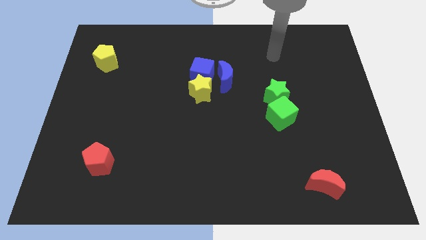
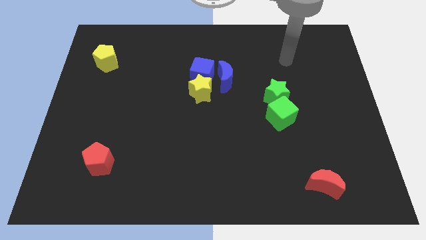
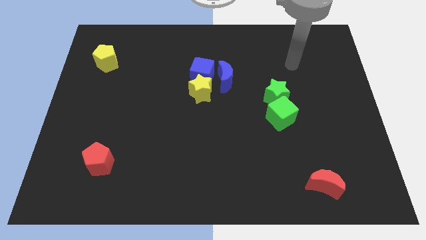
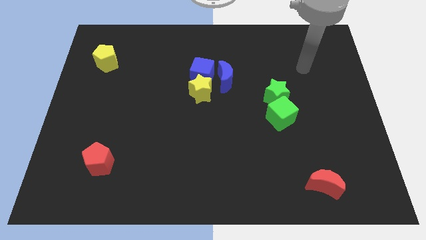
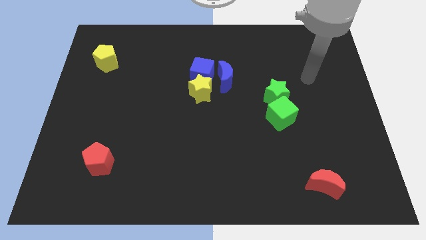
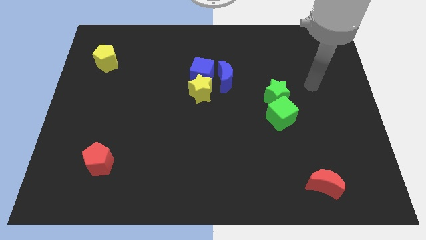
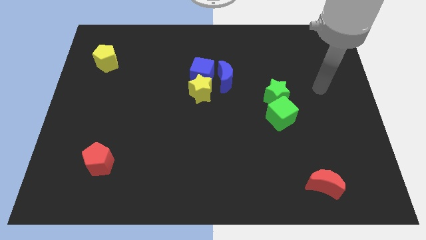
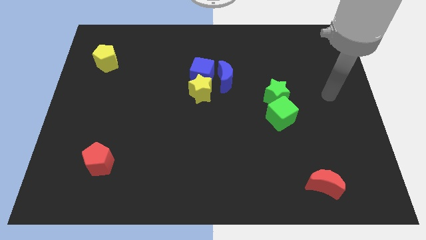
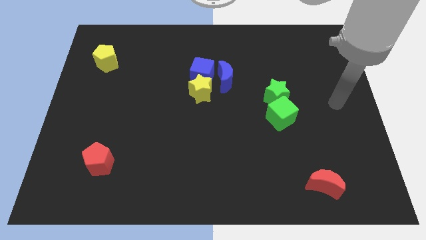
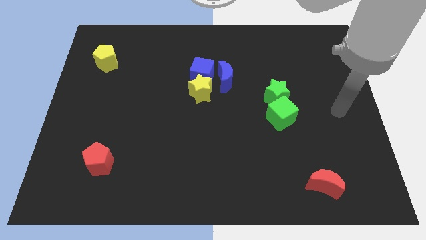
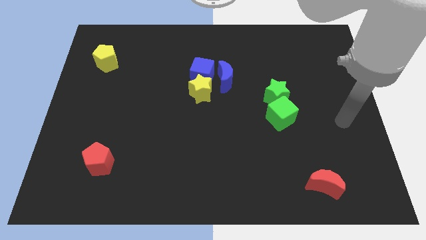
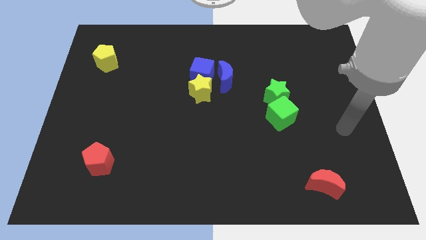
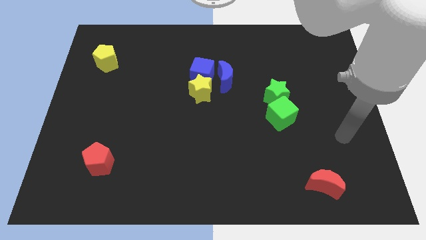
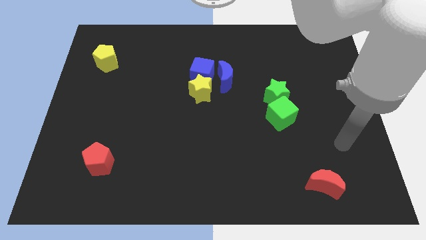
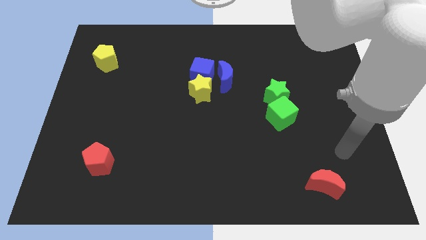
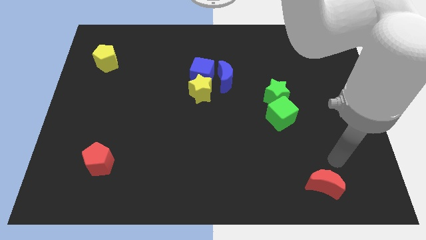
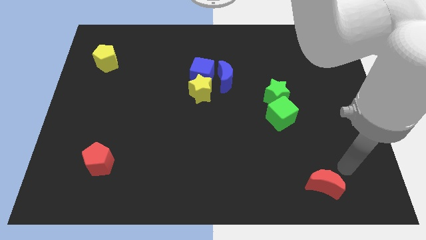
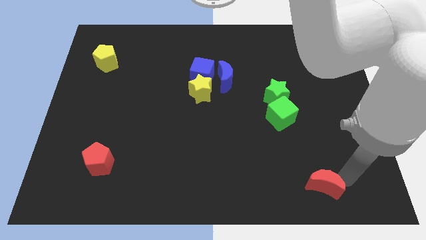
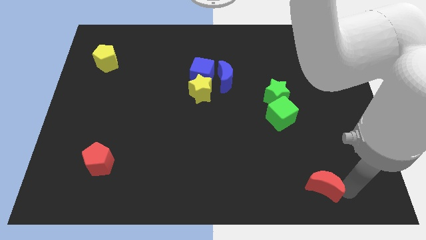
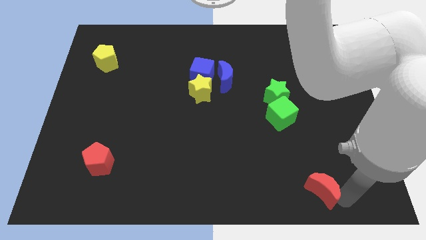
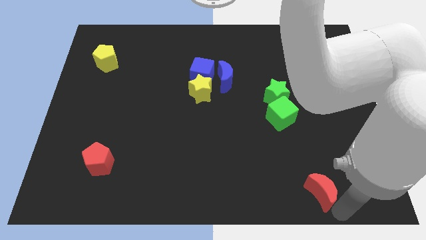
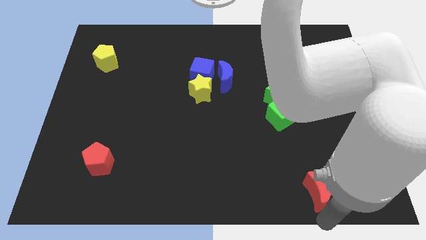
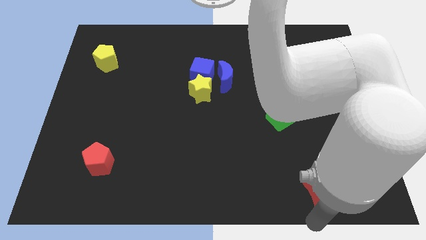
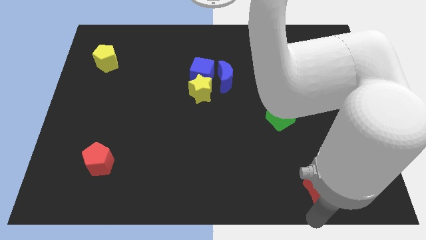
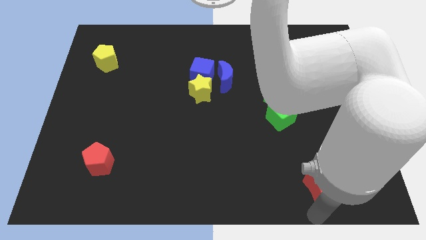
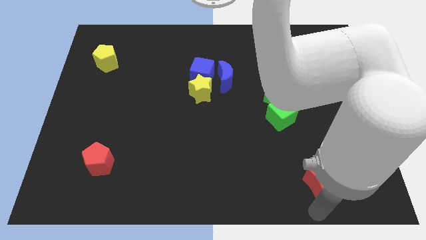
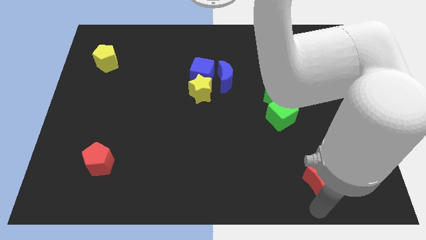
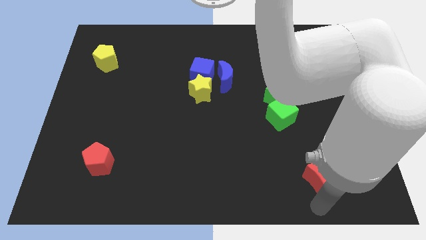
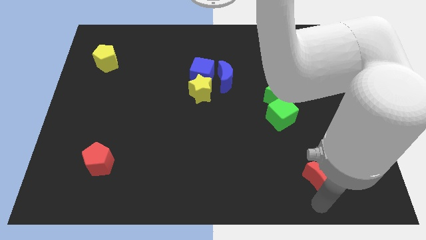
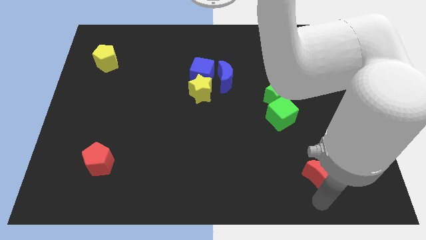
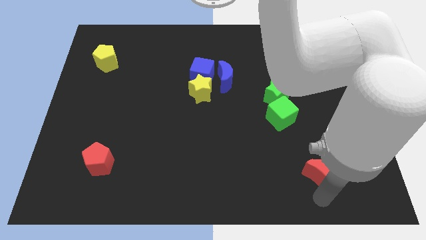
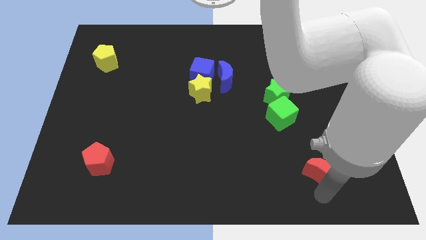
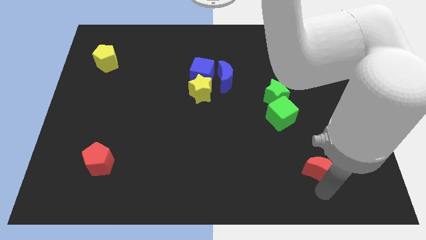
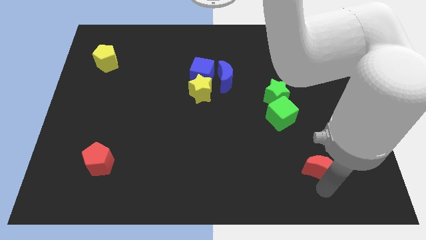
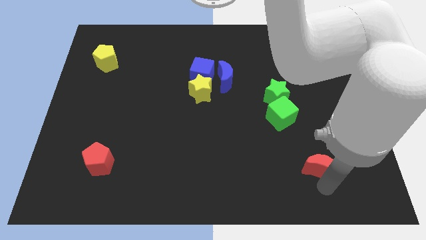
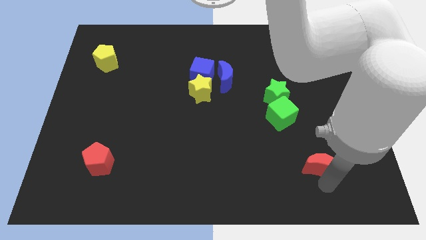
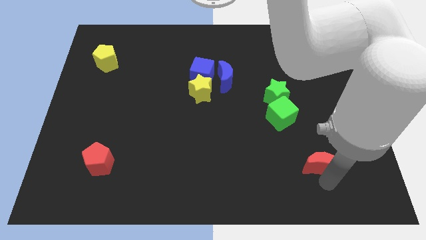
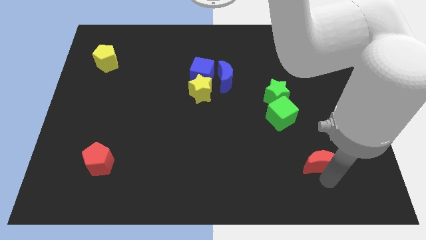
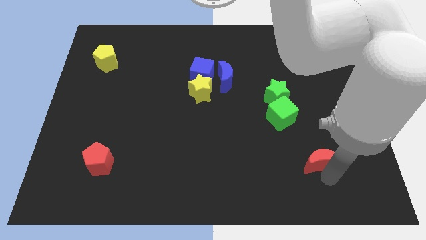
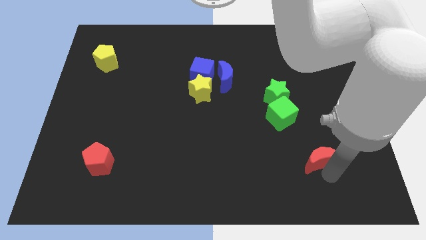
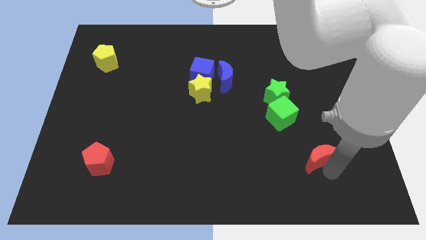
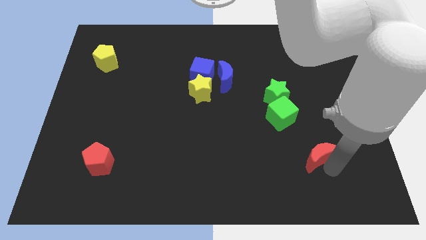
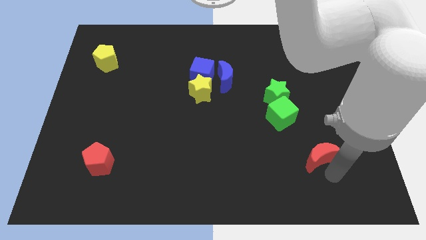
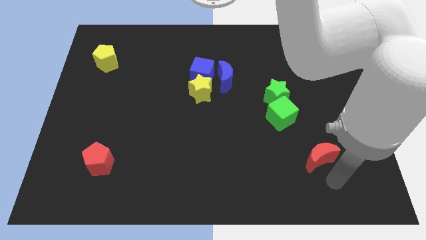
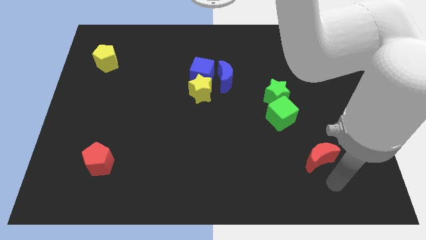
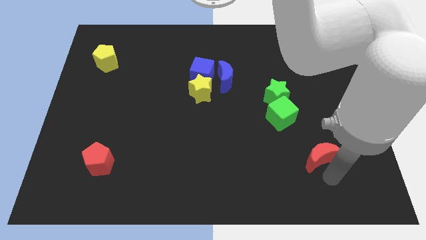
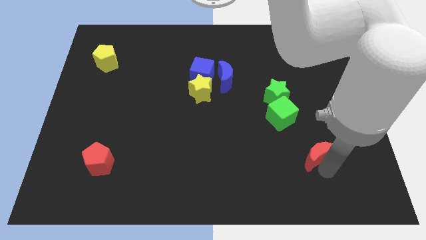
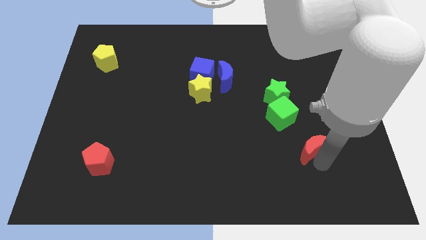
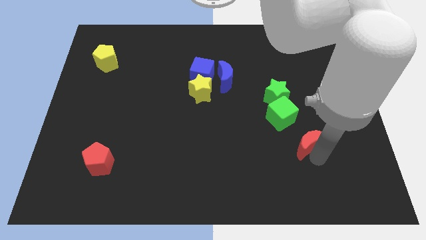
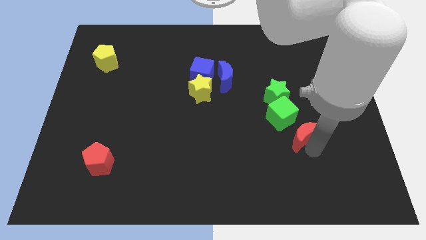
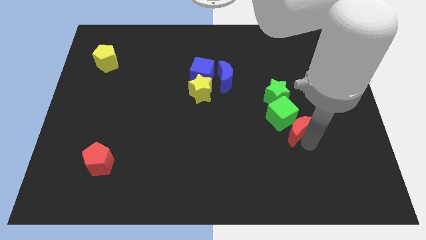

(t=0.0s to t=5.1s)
move the red moon next to the green cube

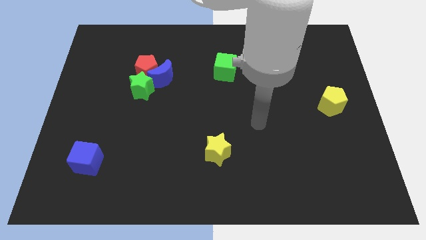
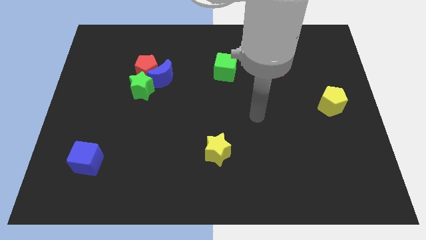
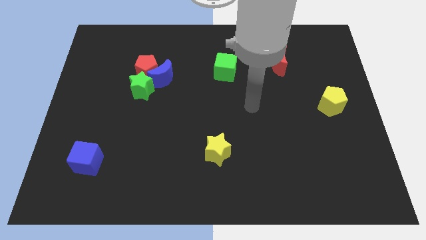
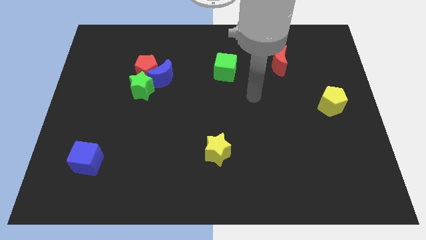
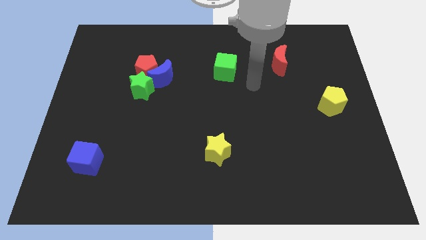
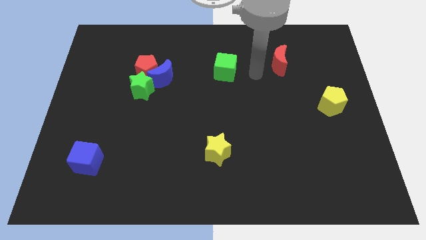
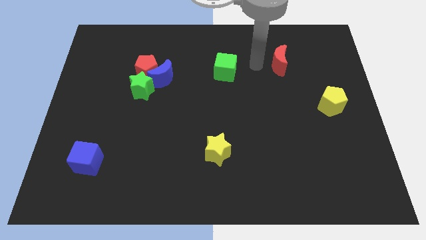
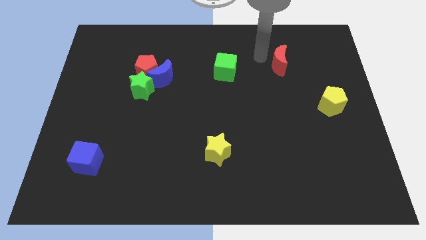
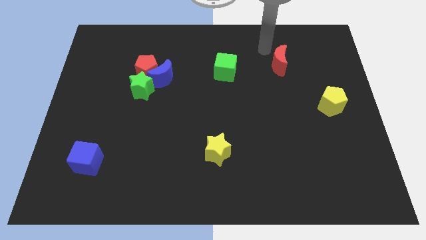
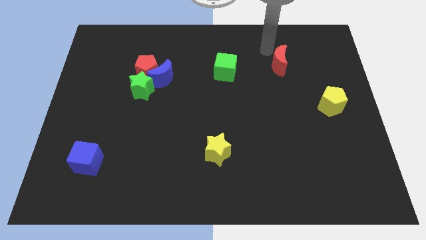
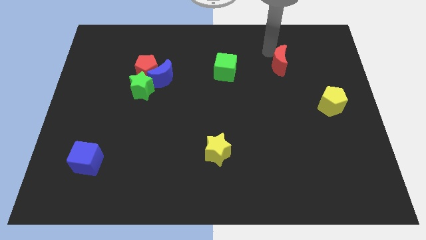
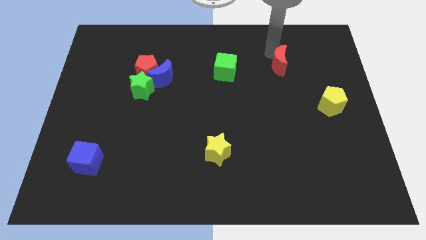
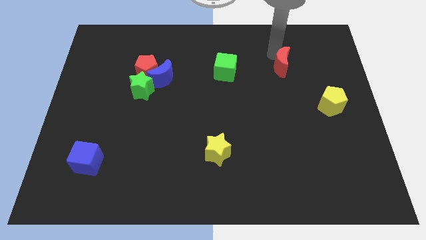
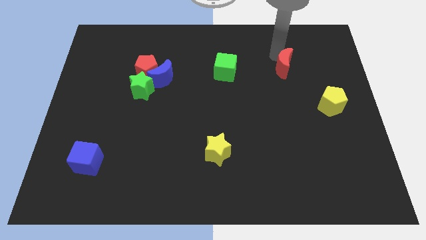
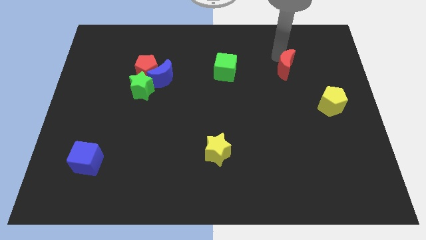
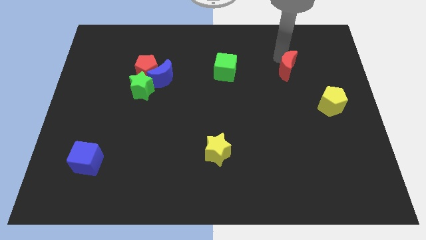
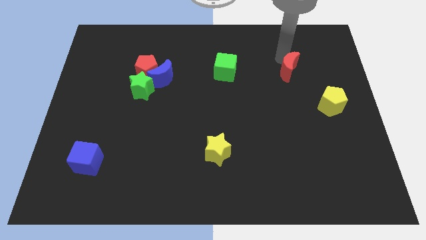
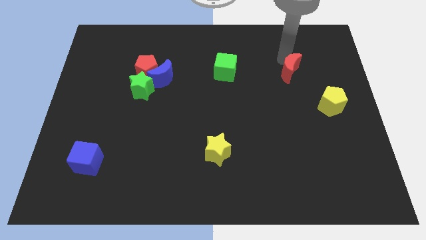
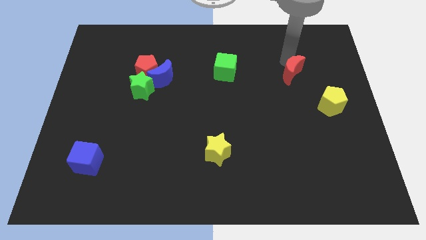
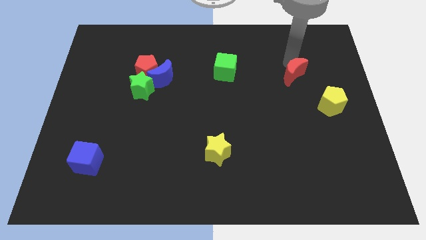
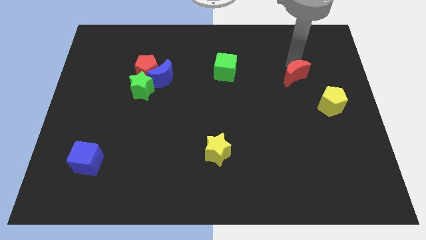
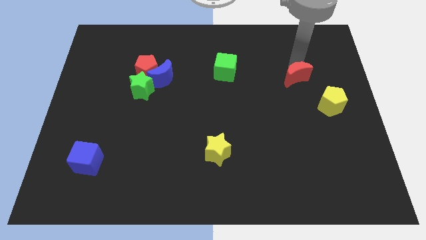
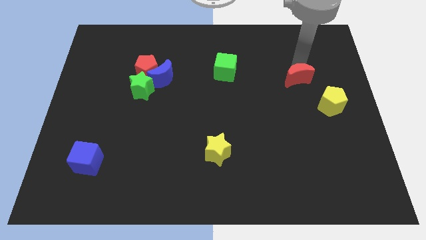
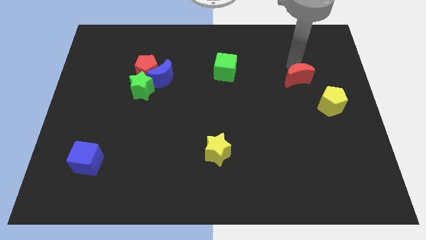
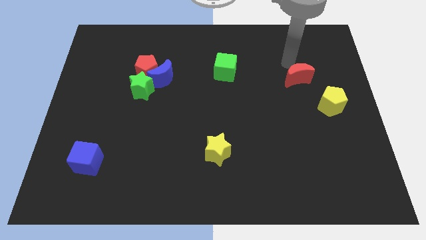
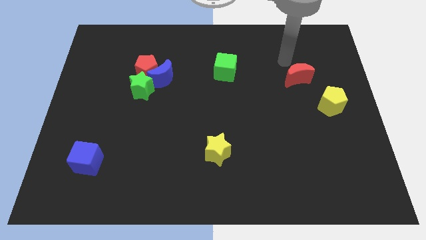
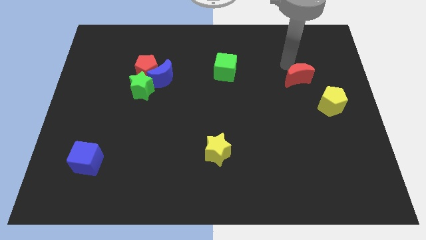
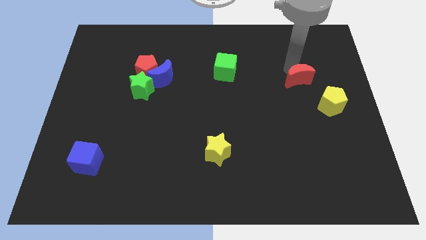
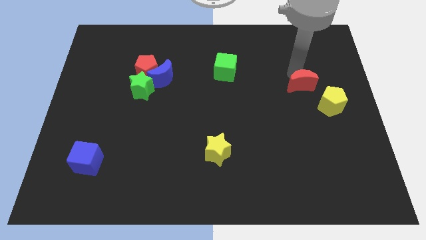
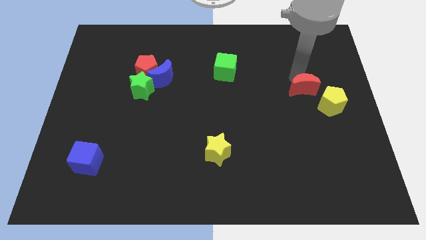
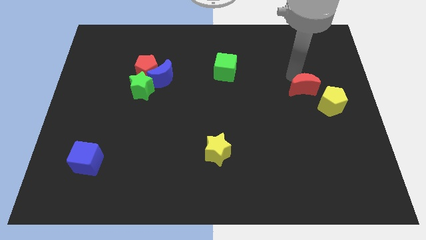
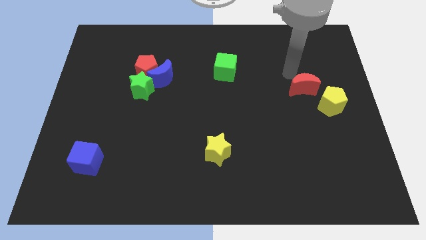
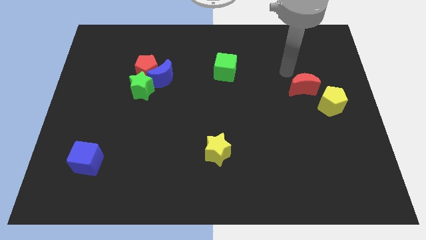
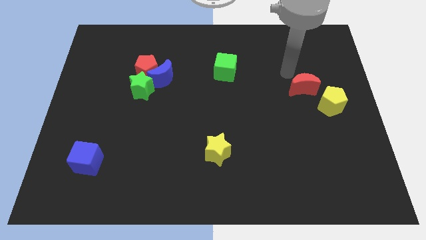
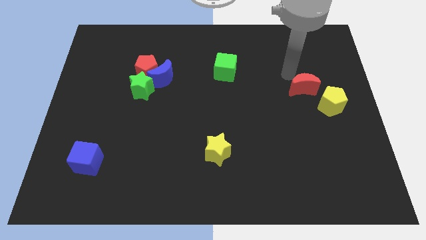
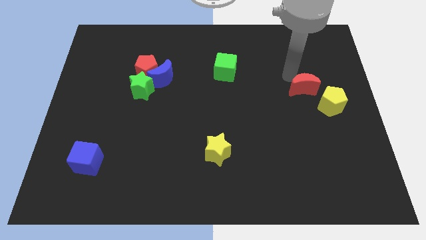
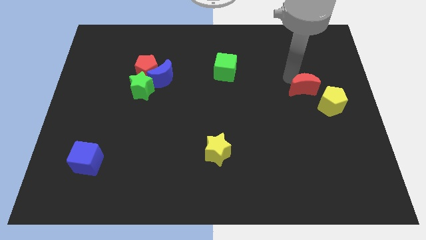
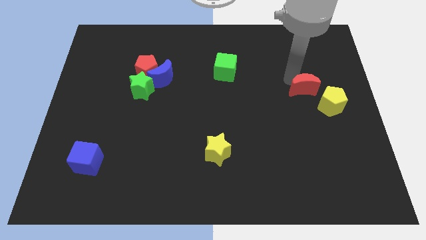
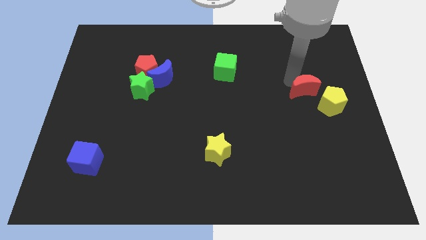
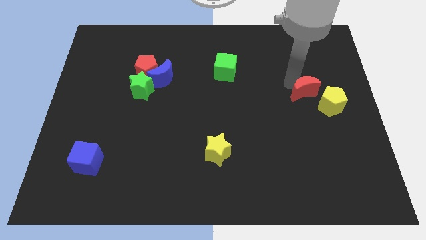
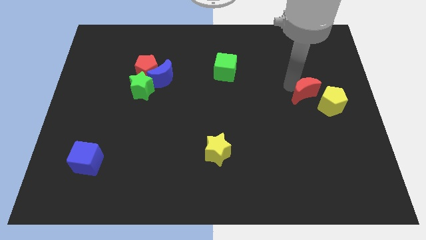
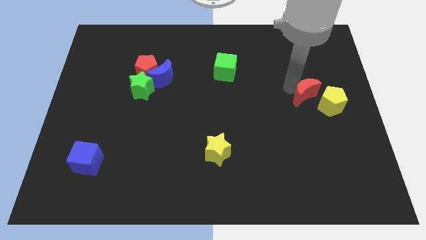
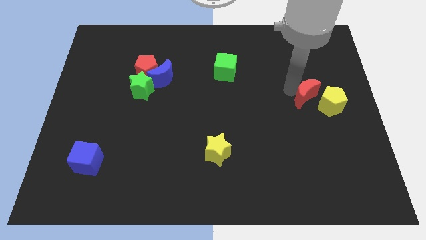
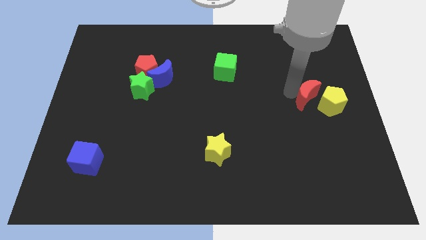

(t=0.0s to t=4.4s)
slide the red moon to the yellow pentagon
